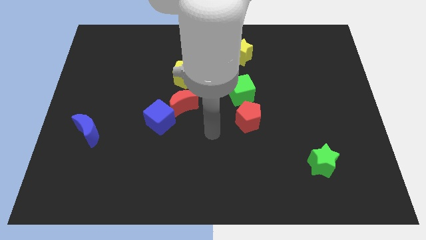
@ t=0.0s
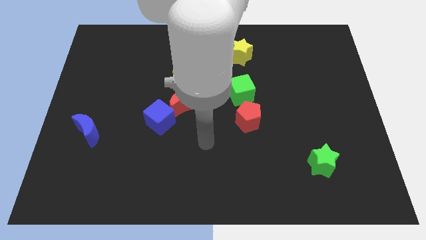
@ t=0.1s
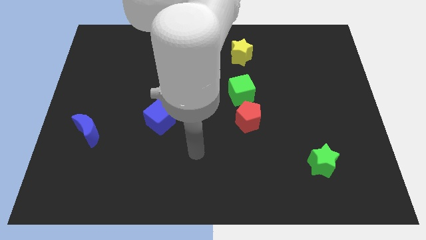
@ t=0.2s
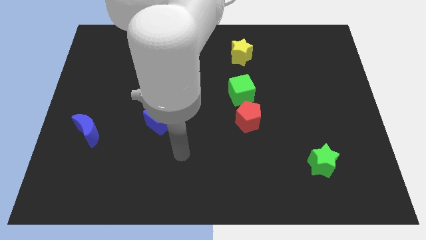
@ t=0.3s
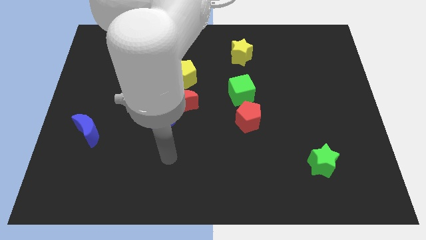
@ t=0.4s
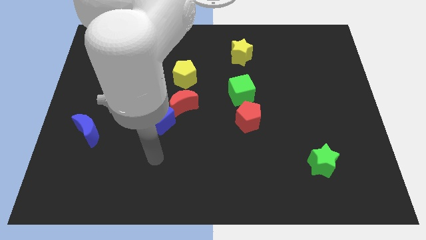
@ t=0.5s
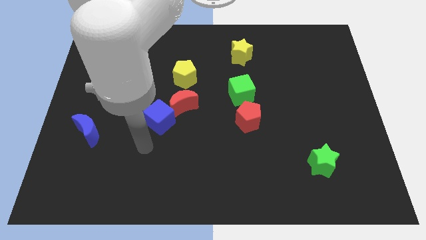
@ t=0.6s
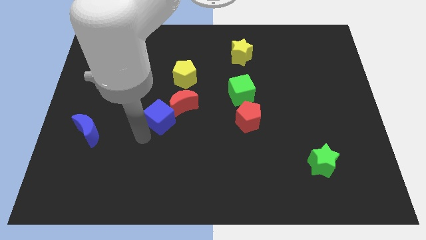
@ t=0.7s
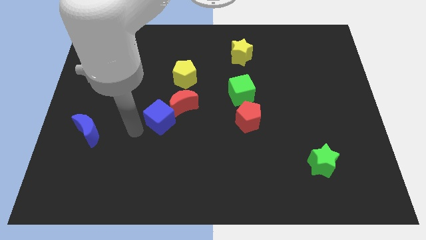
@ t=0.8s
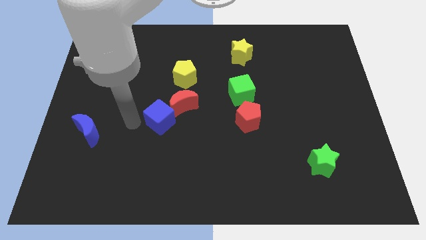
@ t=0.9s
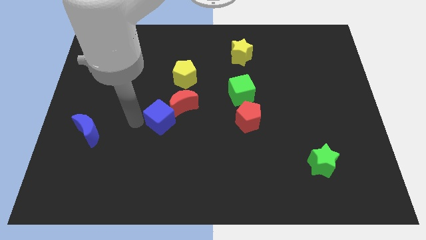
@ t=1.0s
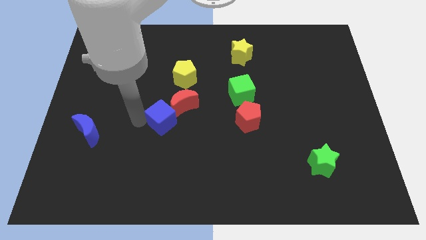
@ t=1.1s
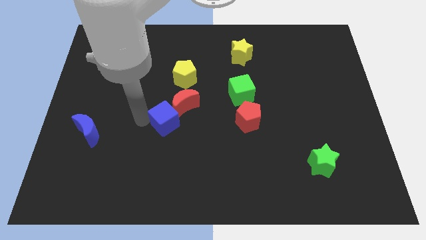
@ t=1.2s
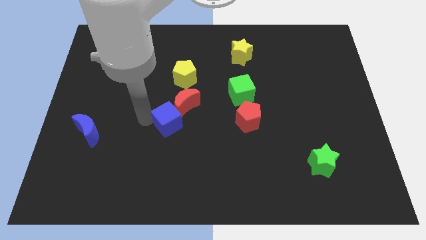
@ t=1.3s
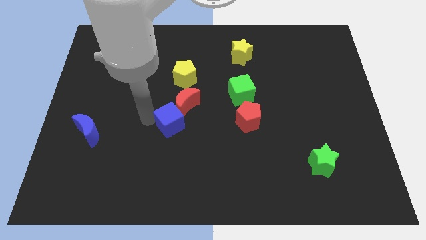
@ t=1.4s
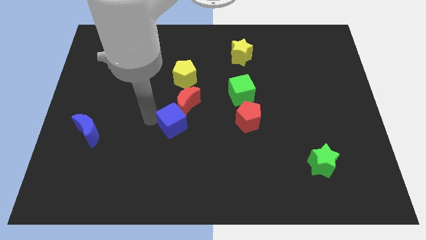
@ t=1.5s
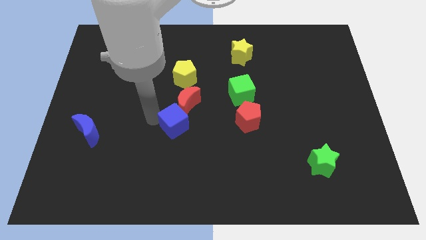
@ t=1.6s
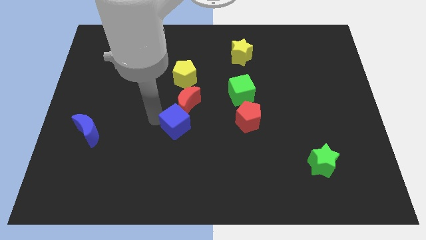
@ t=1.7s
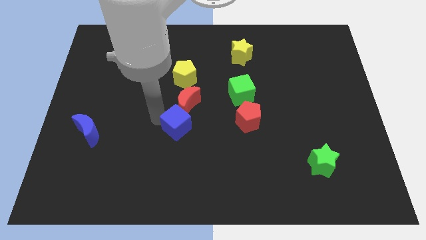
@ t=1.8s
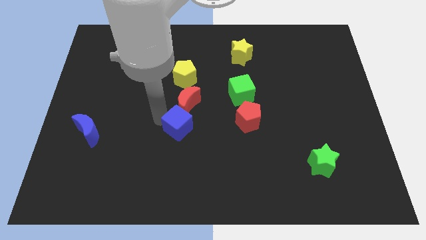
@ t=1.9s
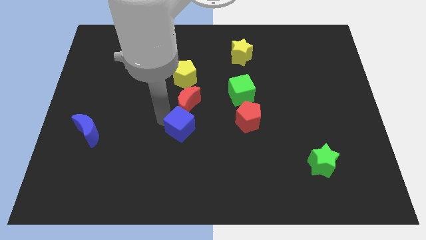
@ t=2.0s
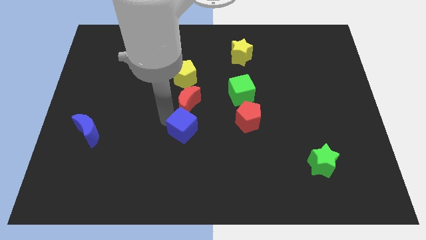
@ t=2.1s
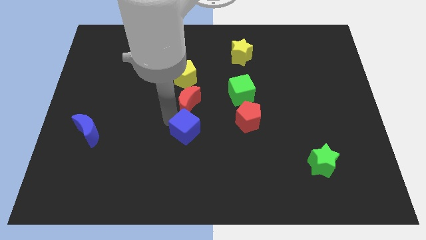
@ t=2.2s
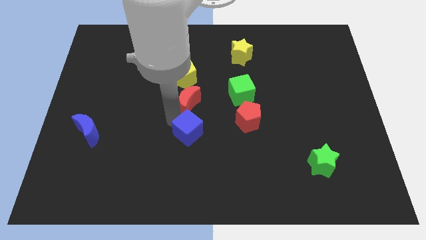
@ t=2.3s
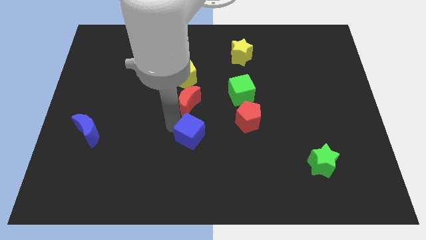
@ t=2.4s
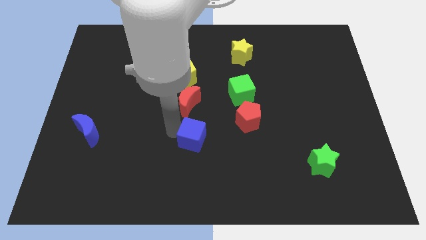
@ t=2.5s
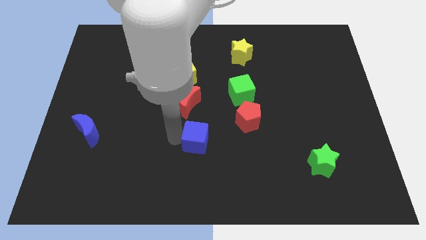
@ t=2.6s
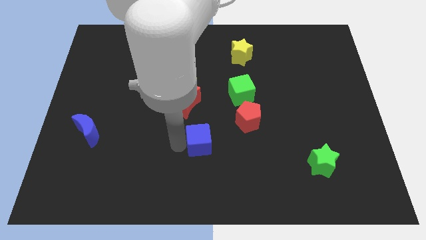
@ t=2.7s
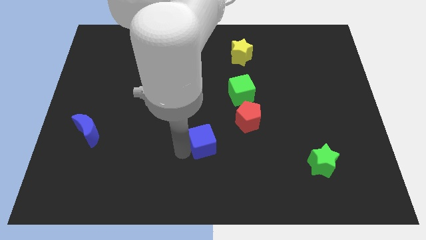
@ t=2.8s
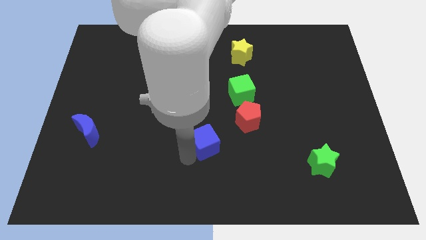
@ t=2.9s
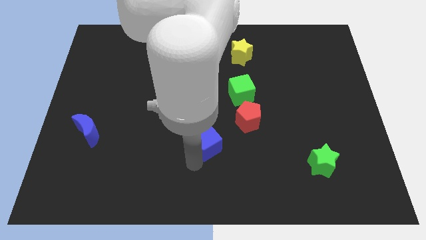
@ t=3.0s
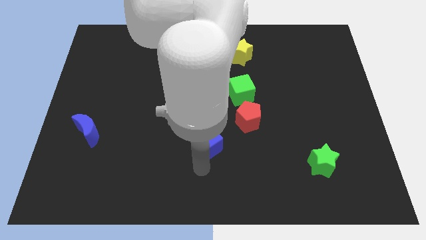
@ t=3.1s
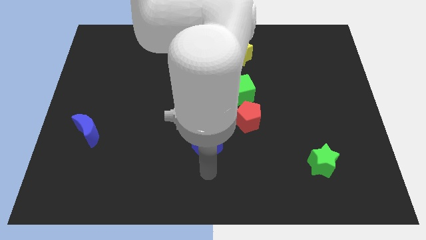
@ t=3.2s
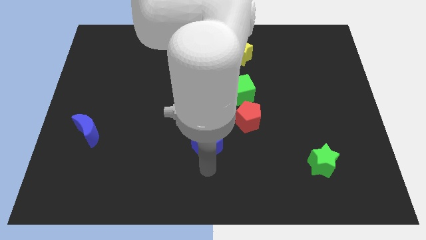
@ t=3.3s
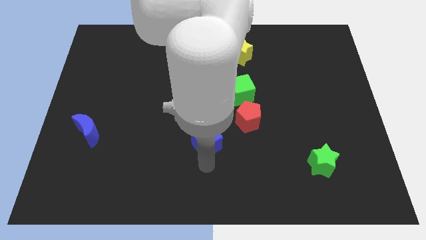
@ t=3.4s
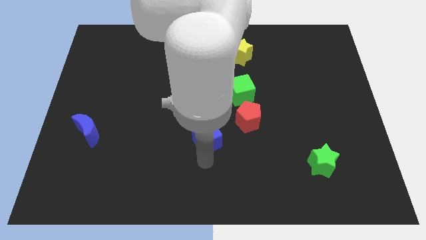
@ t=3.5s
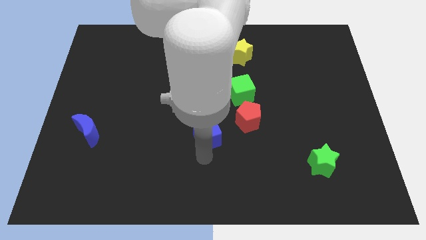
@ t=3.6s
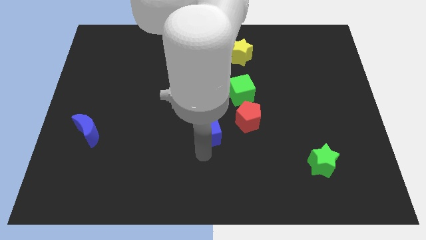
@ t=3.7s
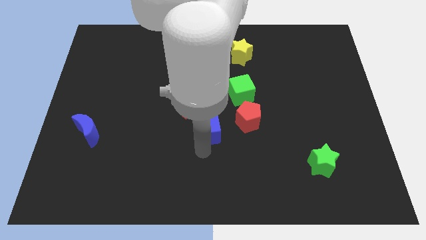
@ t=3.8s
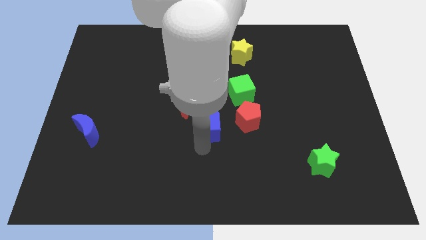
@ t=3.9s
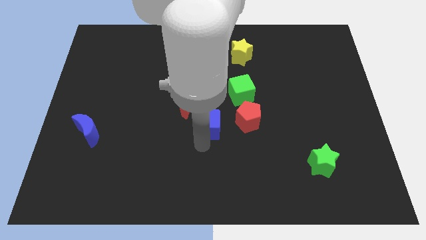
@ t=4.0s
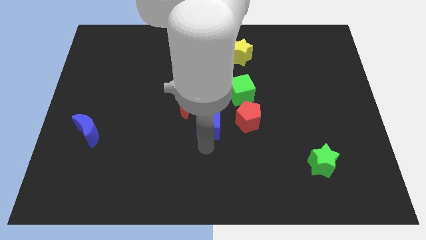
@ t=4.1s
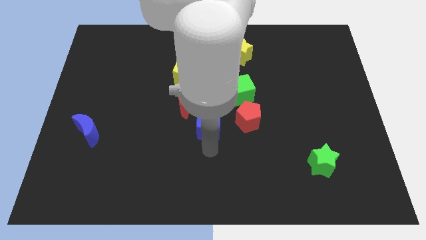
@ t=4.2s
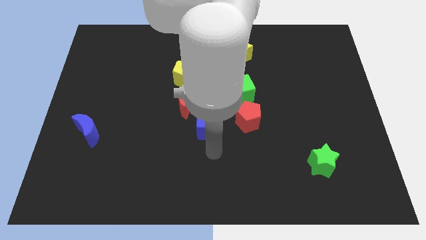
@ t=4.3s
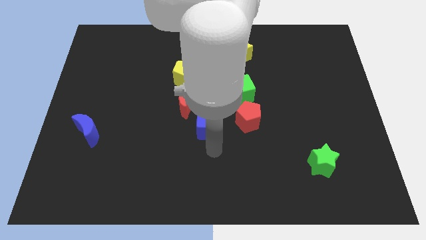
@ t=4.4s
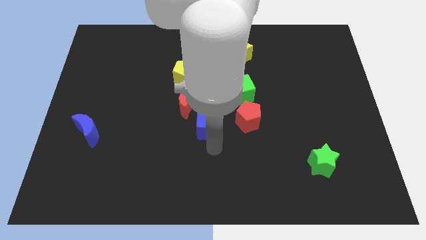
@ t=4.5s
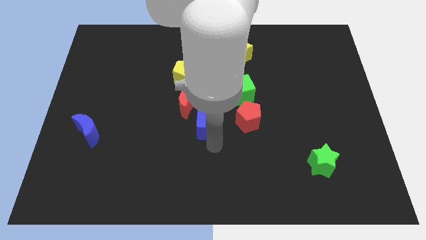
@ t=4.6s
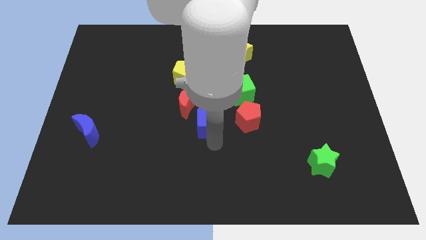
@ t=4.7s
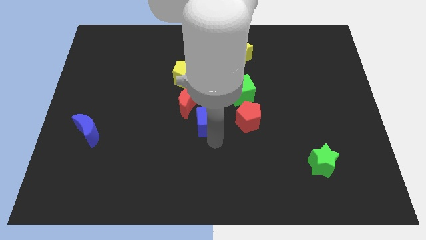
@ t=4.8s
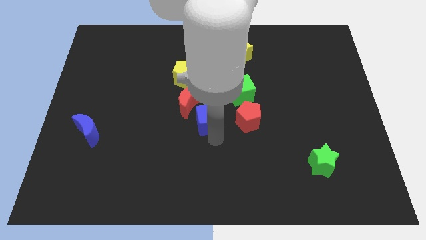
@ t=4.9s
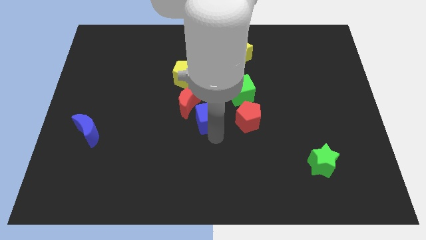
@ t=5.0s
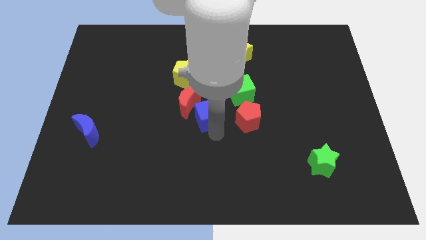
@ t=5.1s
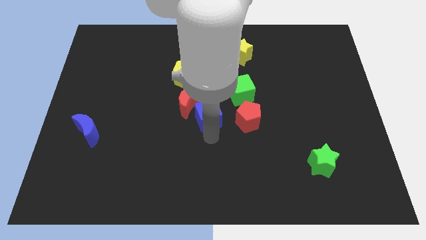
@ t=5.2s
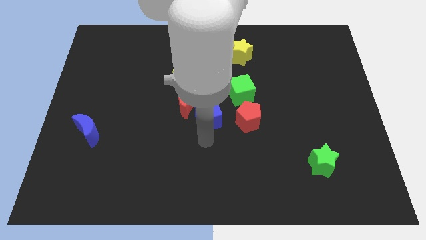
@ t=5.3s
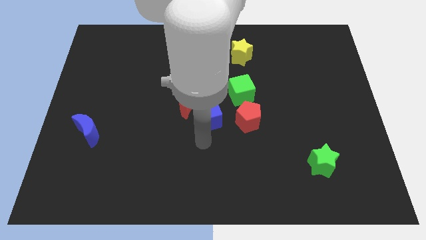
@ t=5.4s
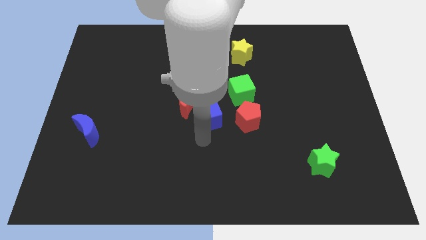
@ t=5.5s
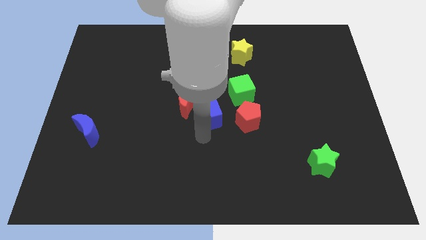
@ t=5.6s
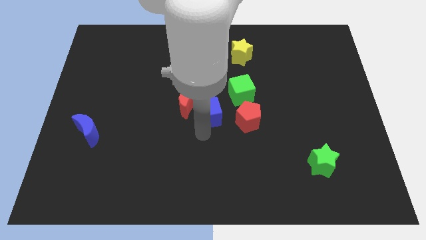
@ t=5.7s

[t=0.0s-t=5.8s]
slide the blue cube a bit upwards and right diagonally

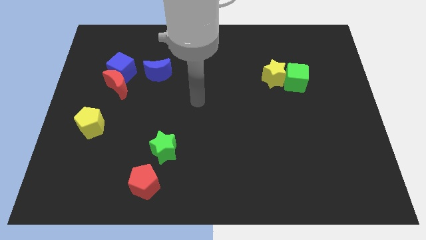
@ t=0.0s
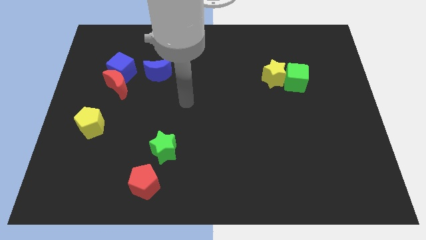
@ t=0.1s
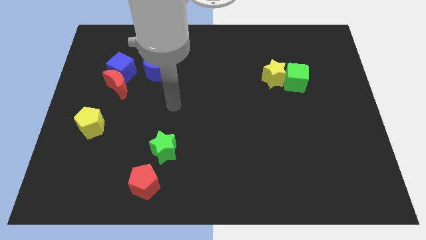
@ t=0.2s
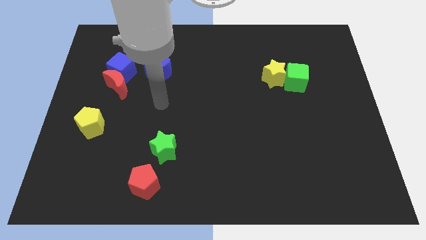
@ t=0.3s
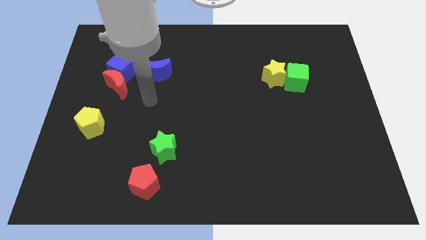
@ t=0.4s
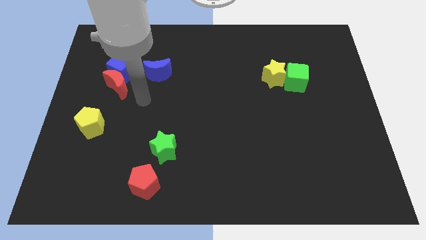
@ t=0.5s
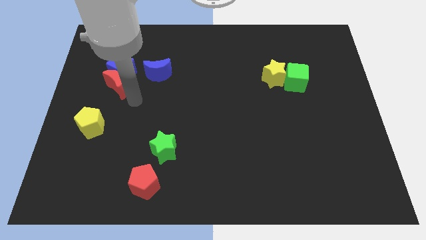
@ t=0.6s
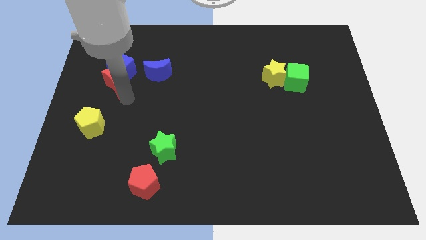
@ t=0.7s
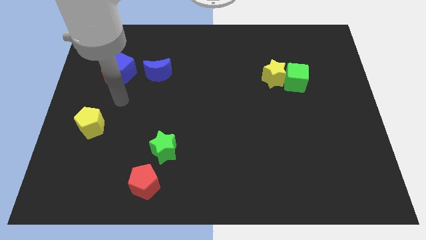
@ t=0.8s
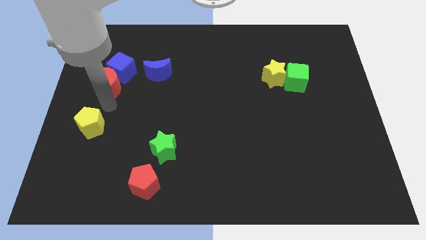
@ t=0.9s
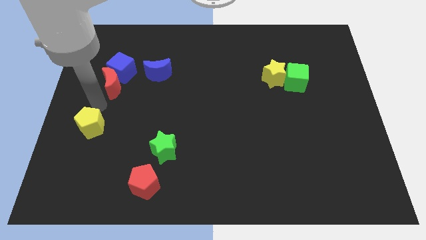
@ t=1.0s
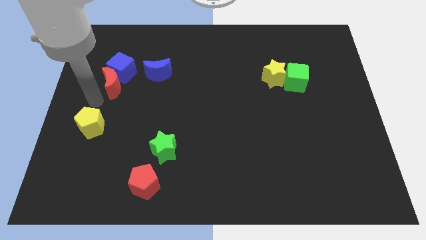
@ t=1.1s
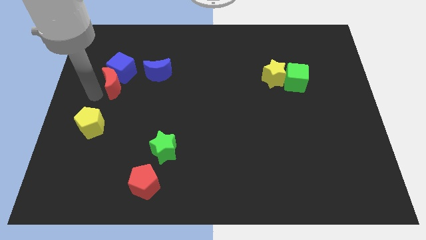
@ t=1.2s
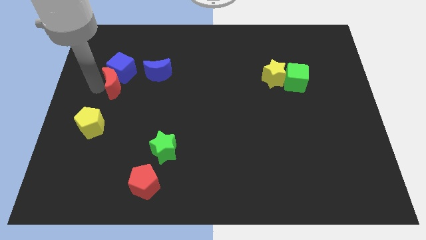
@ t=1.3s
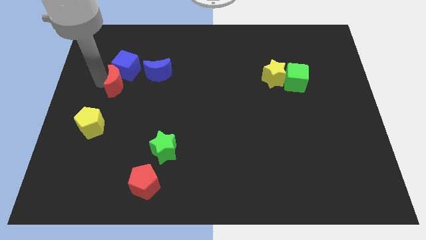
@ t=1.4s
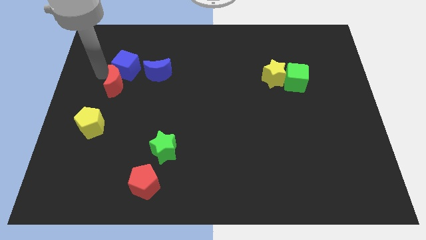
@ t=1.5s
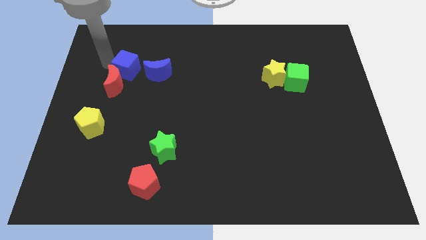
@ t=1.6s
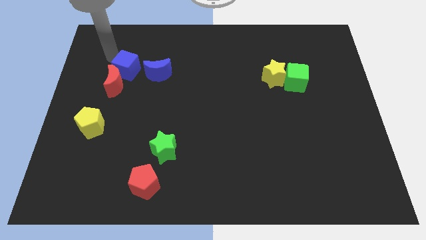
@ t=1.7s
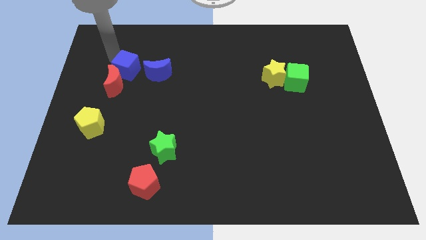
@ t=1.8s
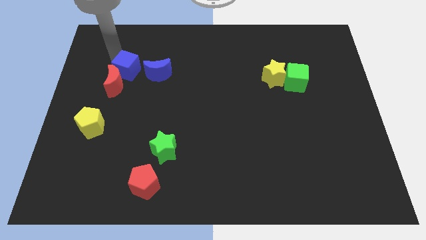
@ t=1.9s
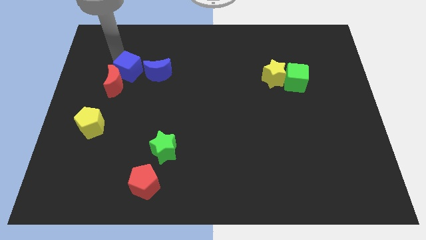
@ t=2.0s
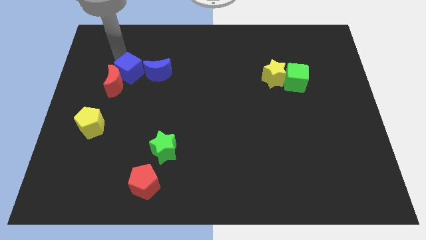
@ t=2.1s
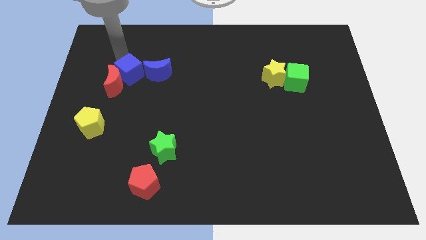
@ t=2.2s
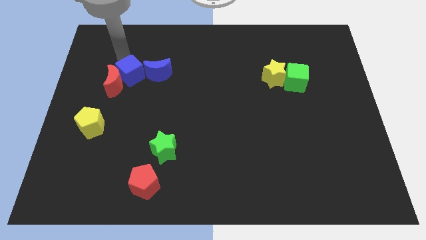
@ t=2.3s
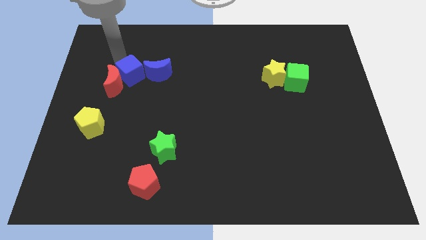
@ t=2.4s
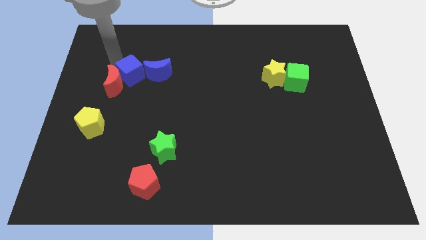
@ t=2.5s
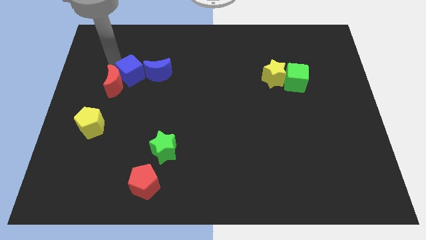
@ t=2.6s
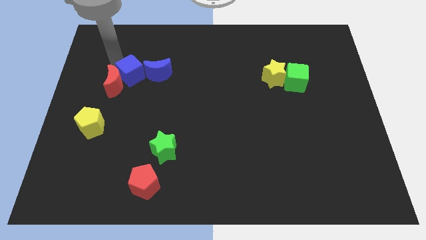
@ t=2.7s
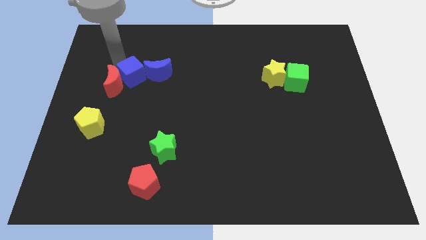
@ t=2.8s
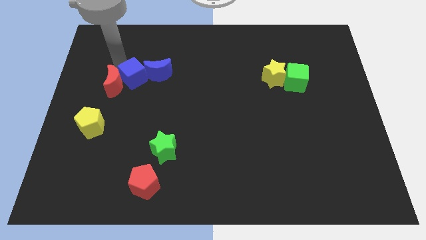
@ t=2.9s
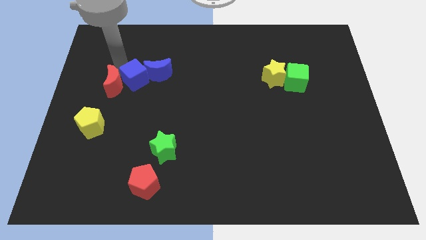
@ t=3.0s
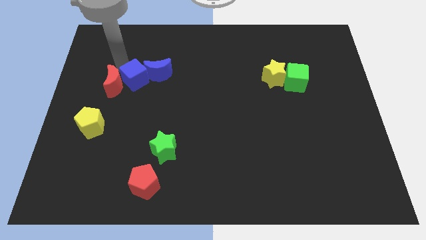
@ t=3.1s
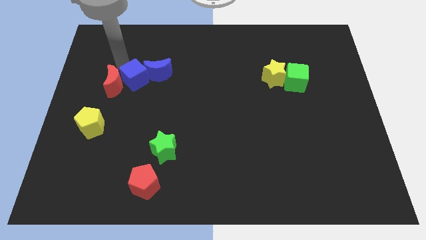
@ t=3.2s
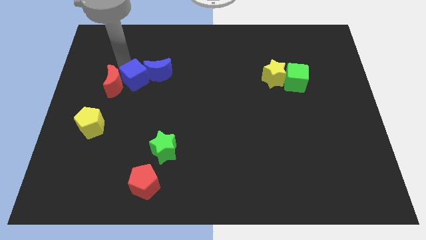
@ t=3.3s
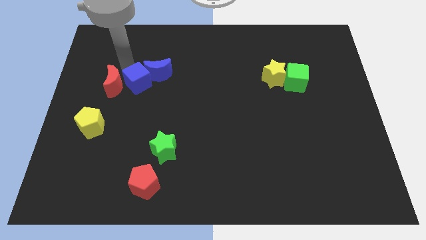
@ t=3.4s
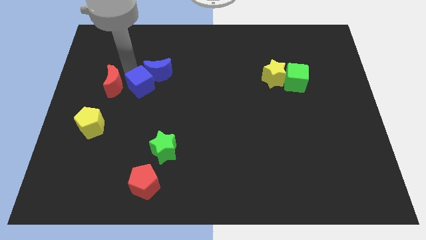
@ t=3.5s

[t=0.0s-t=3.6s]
push the blue cube somewhat downwards and right diagonally
